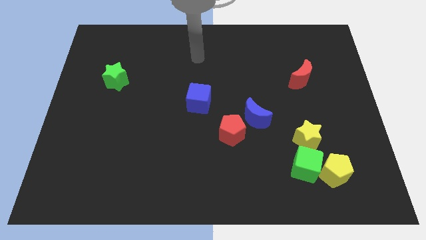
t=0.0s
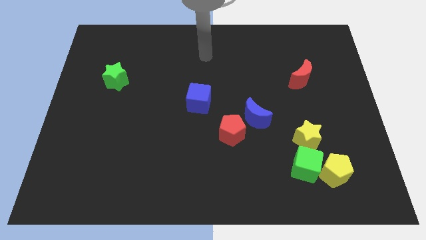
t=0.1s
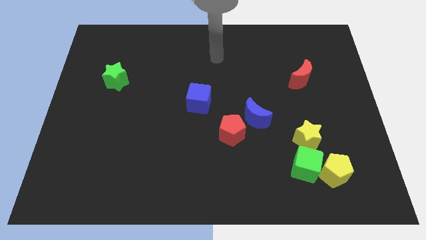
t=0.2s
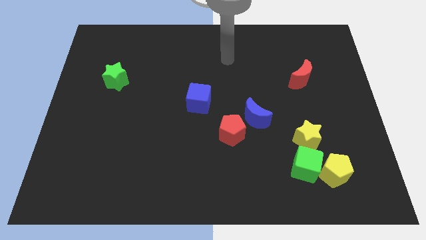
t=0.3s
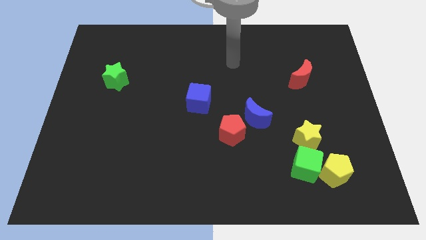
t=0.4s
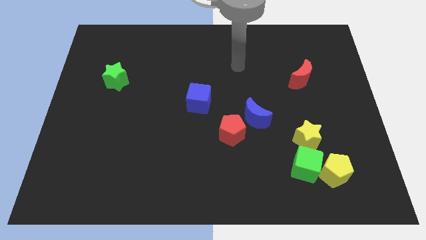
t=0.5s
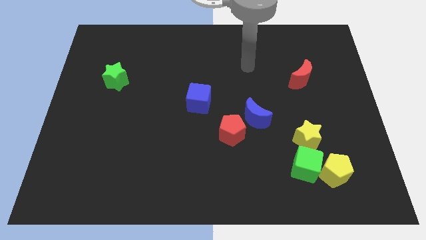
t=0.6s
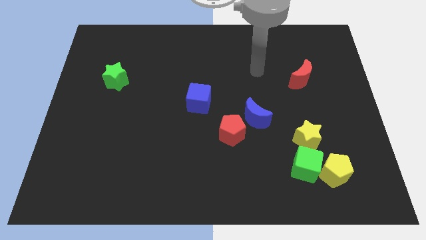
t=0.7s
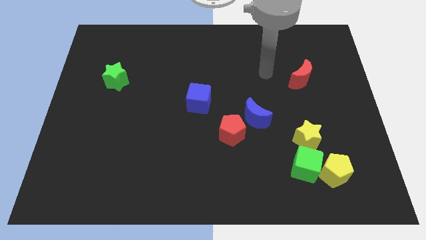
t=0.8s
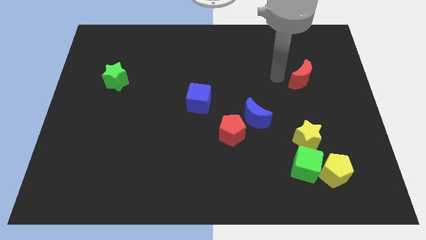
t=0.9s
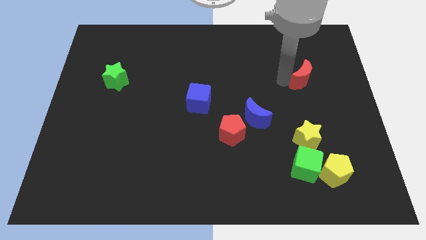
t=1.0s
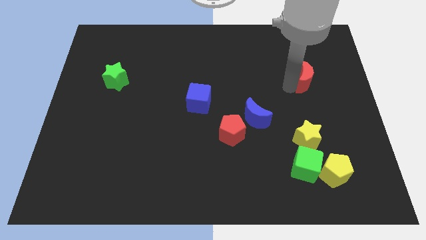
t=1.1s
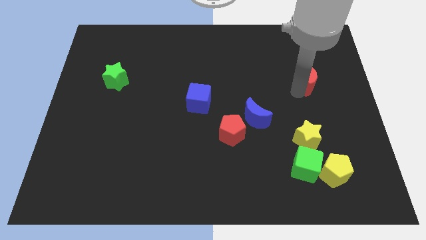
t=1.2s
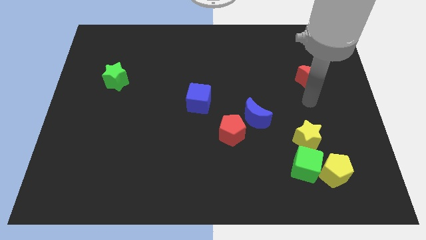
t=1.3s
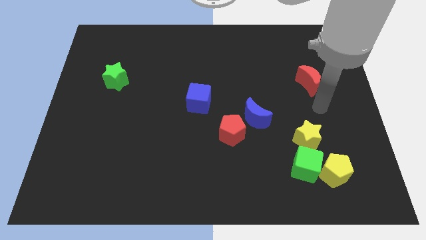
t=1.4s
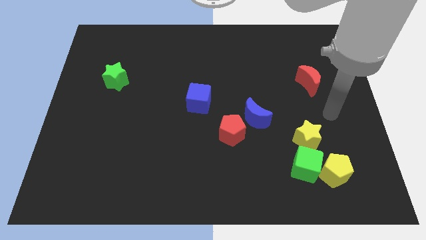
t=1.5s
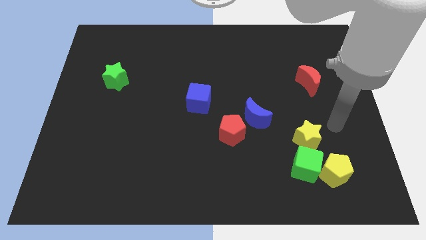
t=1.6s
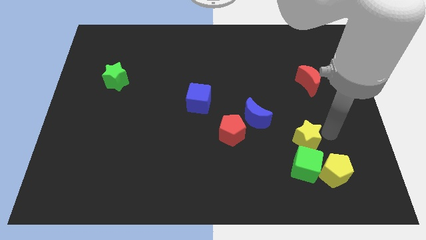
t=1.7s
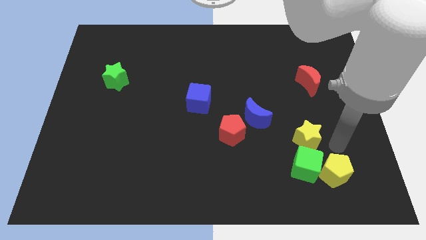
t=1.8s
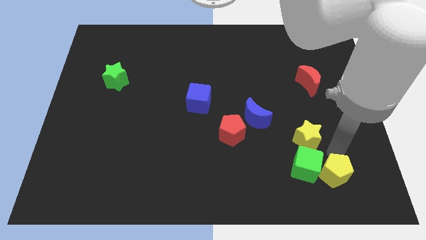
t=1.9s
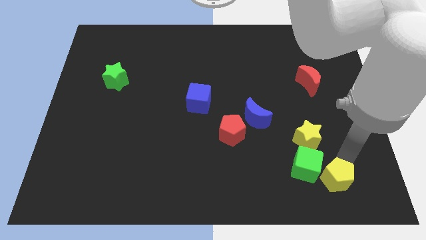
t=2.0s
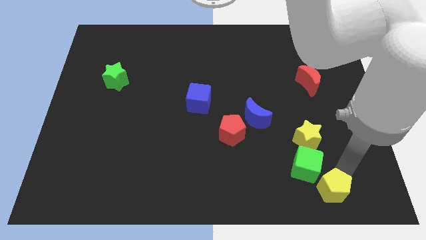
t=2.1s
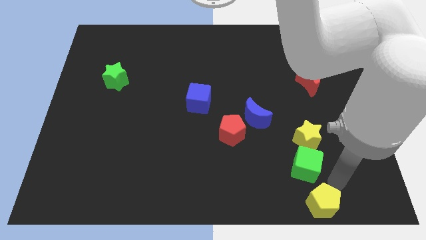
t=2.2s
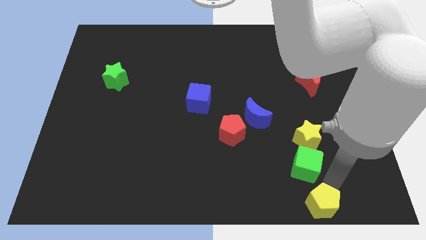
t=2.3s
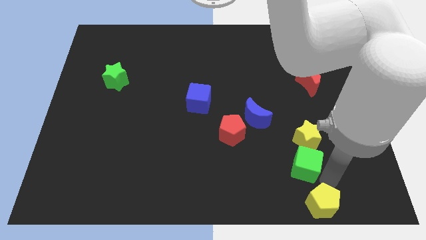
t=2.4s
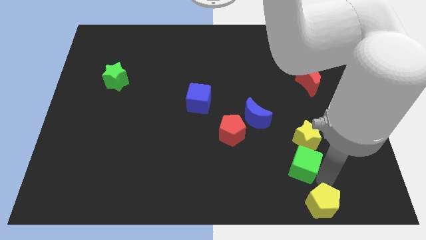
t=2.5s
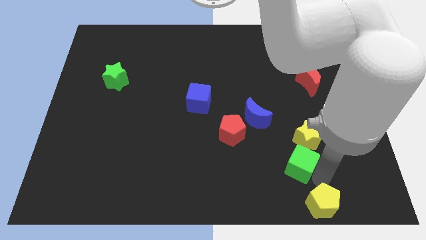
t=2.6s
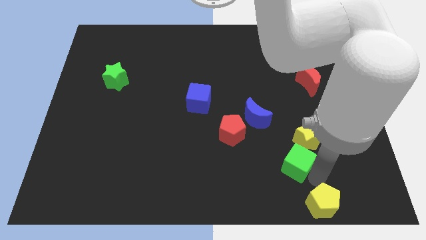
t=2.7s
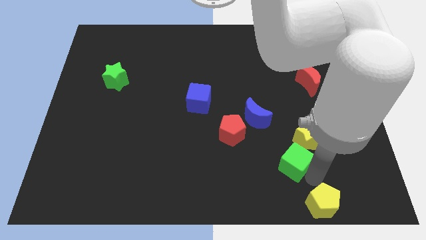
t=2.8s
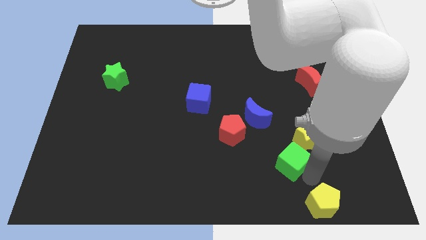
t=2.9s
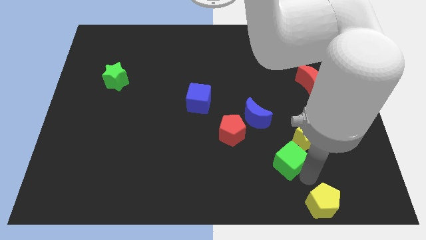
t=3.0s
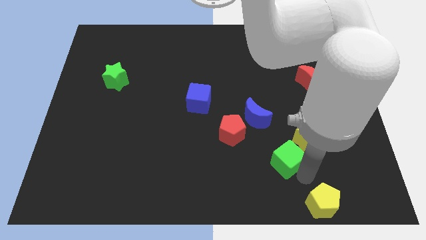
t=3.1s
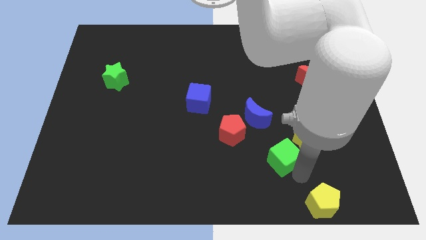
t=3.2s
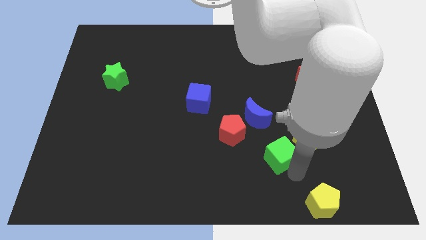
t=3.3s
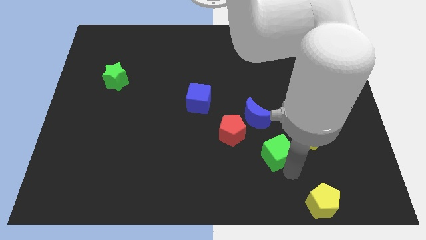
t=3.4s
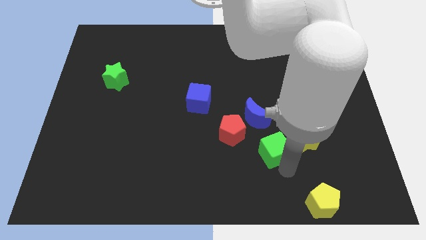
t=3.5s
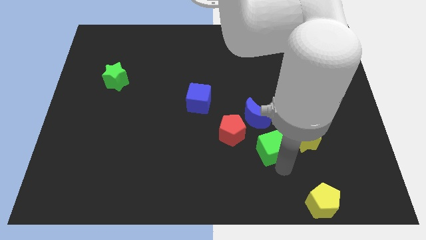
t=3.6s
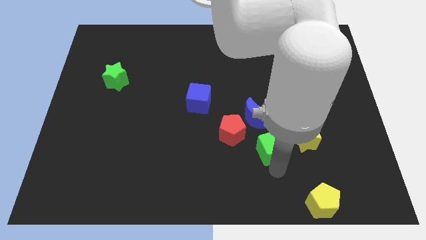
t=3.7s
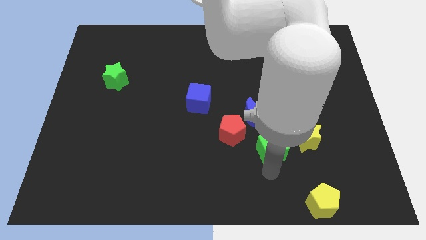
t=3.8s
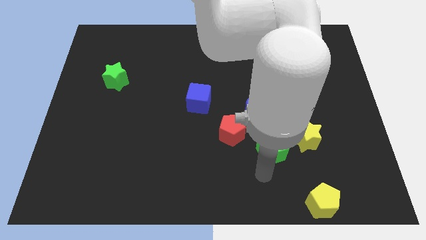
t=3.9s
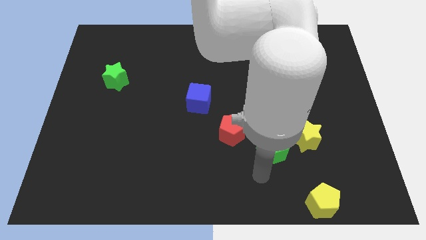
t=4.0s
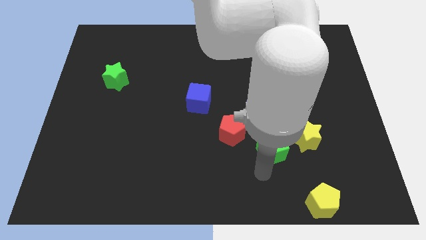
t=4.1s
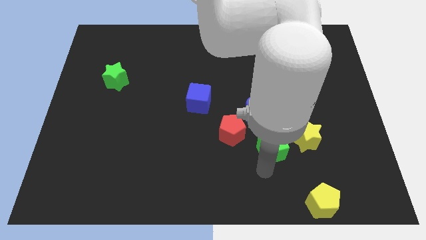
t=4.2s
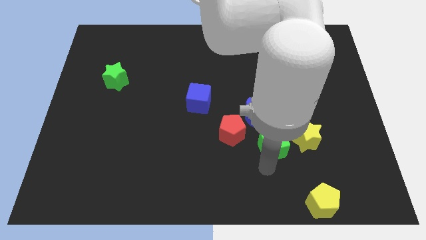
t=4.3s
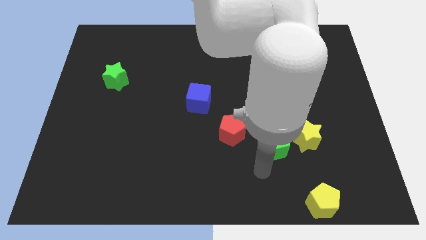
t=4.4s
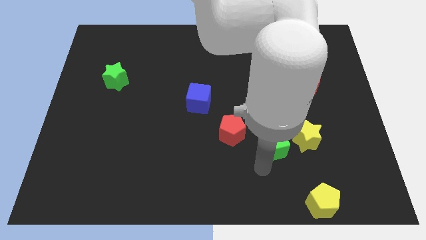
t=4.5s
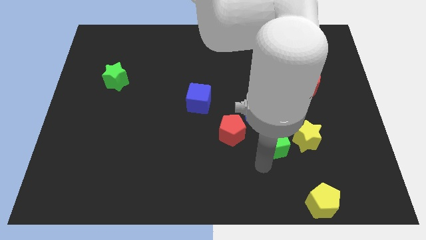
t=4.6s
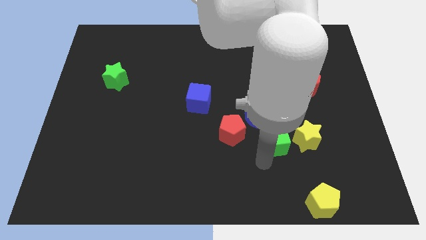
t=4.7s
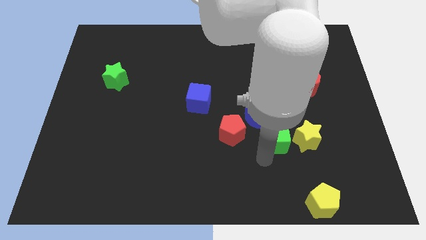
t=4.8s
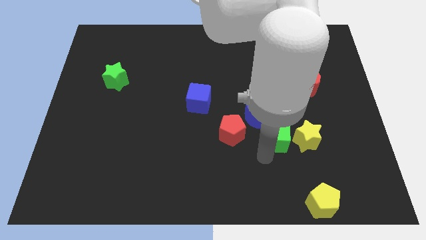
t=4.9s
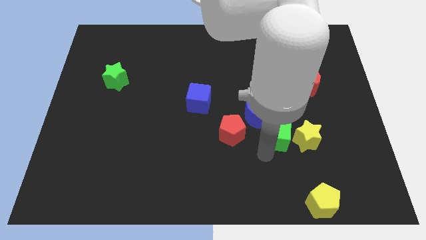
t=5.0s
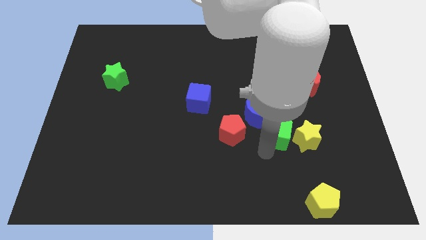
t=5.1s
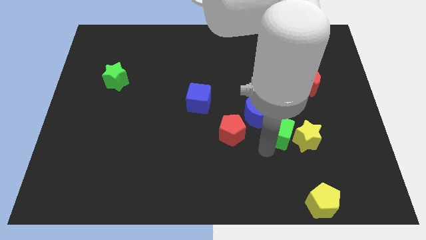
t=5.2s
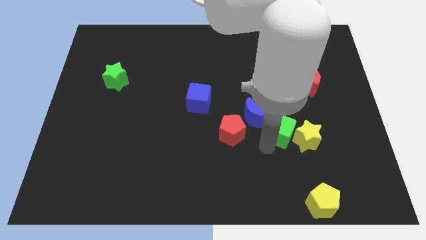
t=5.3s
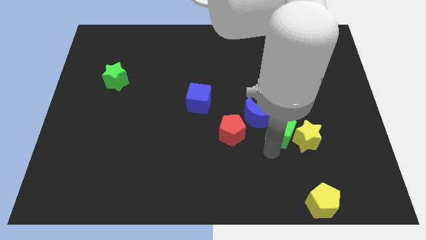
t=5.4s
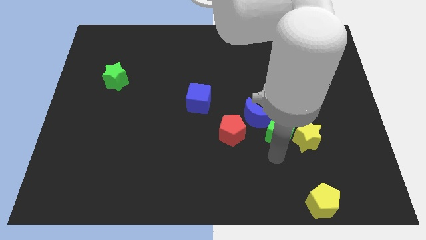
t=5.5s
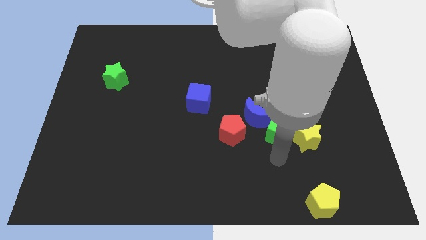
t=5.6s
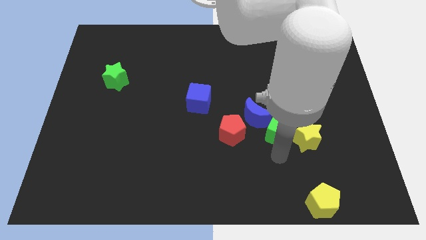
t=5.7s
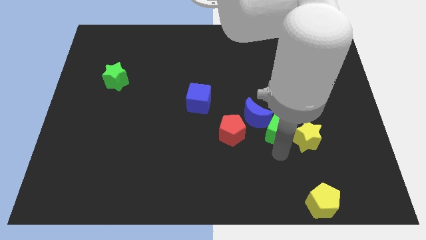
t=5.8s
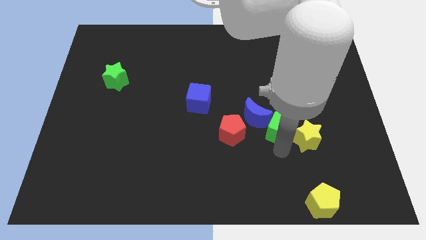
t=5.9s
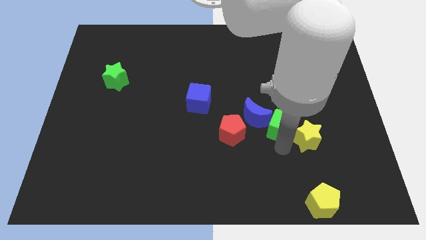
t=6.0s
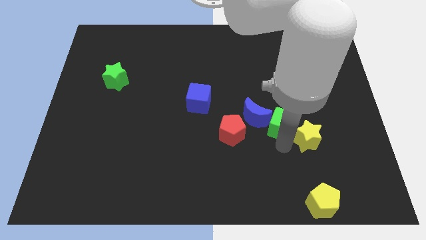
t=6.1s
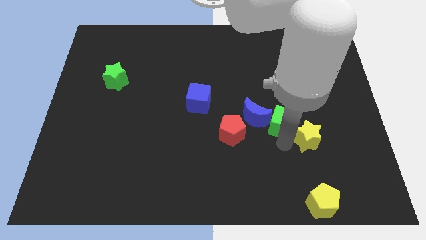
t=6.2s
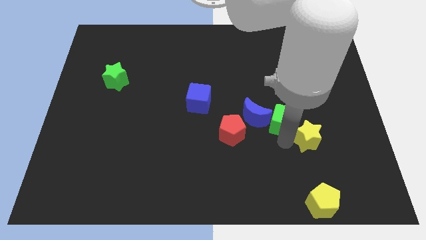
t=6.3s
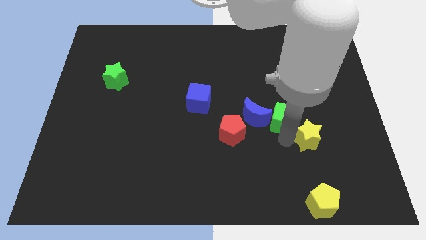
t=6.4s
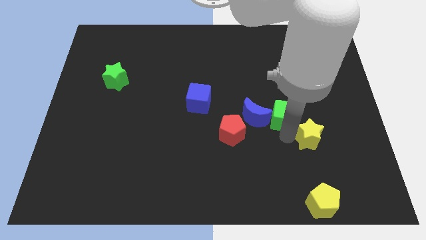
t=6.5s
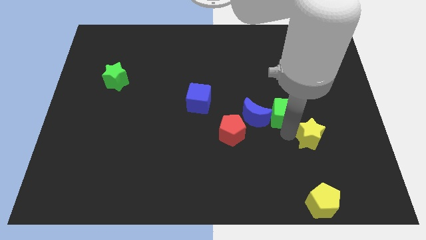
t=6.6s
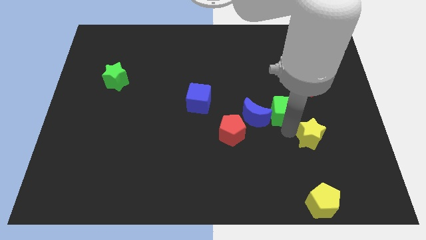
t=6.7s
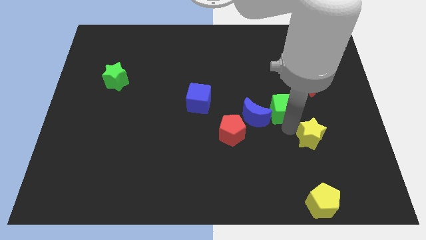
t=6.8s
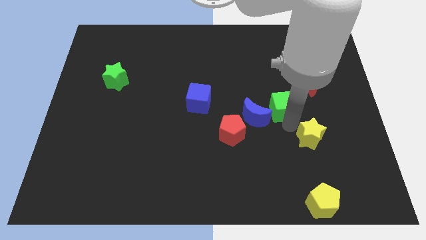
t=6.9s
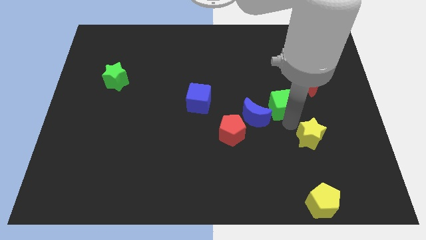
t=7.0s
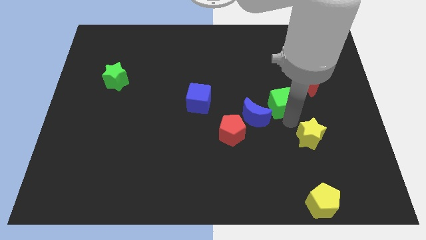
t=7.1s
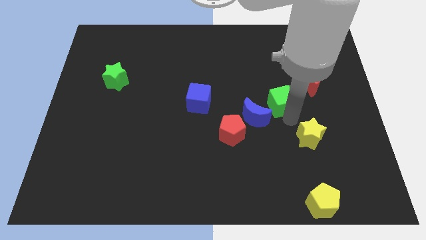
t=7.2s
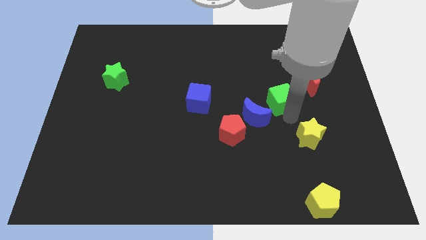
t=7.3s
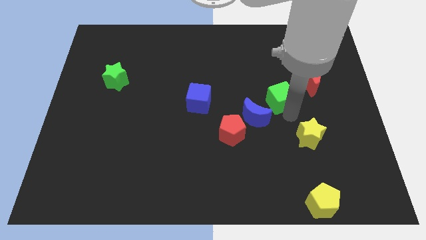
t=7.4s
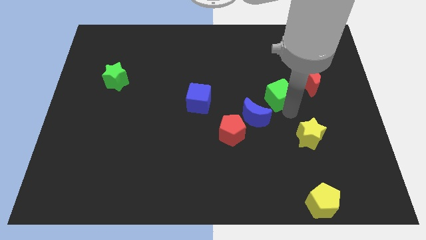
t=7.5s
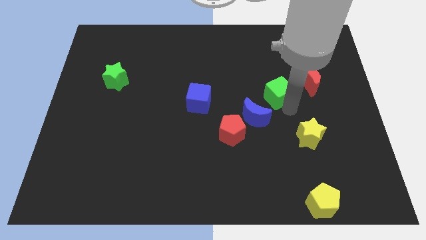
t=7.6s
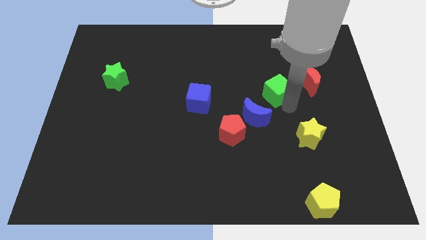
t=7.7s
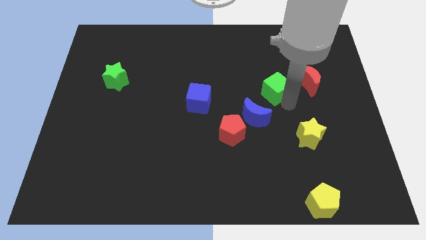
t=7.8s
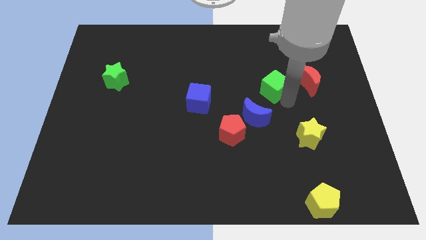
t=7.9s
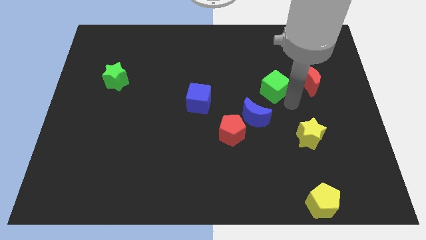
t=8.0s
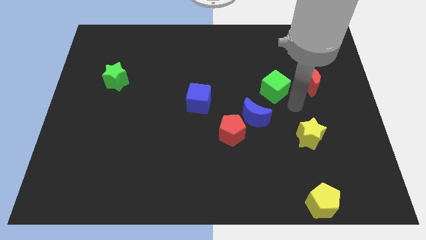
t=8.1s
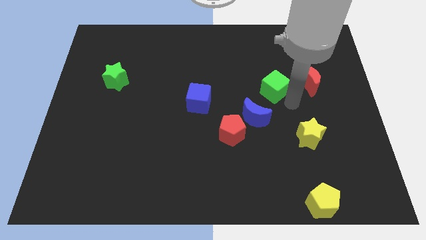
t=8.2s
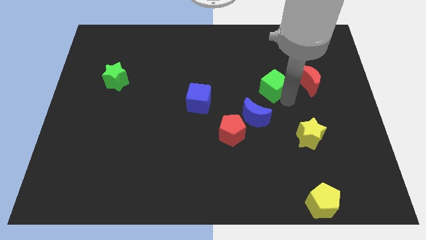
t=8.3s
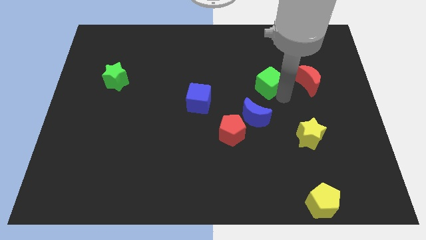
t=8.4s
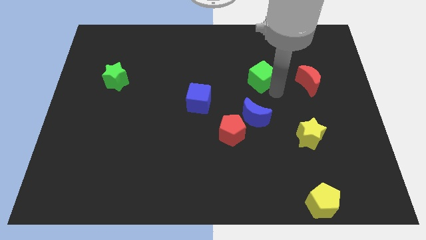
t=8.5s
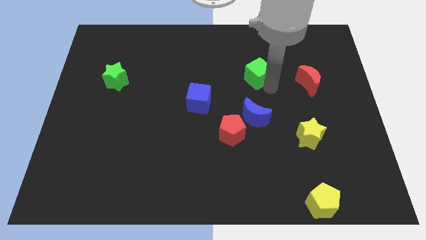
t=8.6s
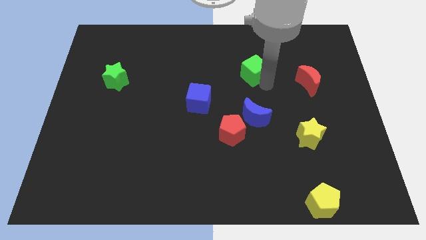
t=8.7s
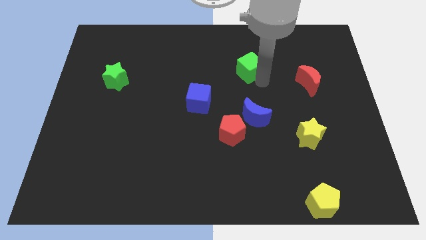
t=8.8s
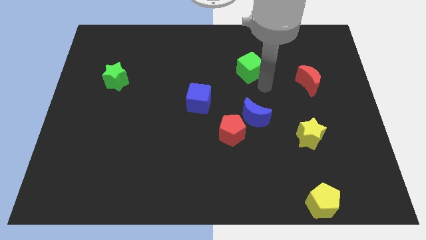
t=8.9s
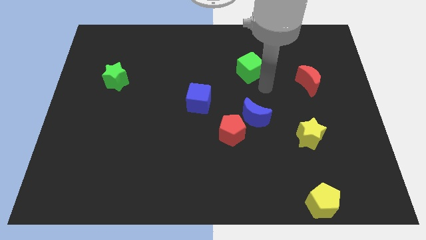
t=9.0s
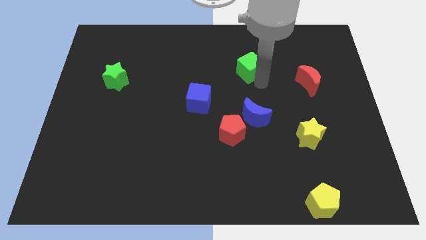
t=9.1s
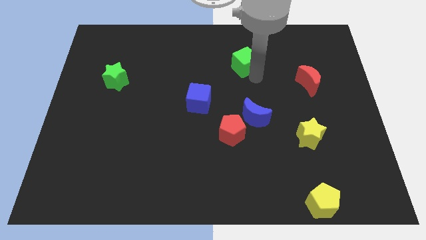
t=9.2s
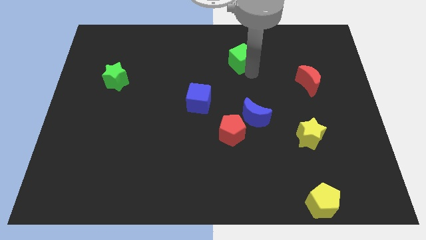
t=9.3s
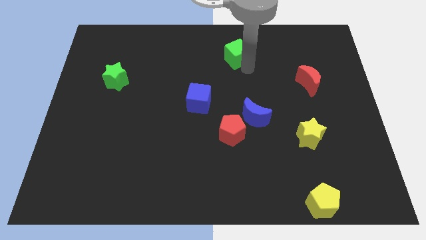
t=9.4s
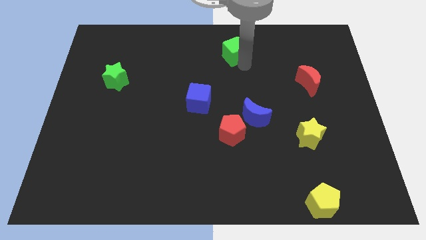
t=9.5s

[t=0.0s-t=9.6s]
move the green cube to the towards your base
